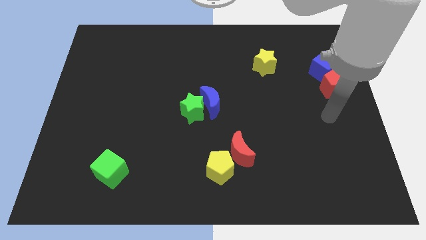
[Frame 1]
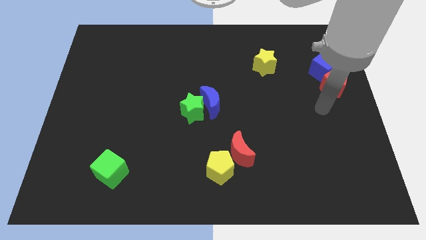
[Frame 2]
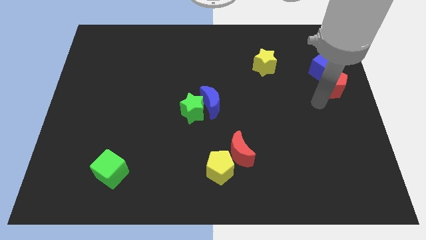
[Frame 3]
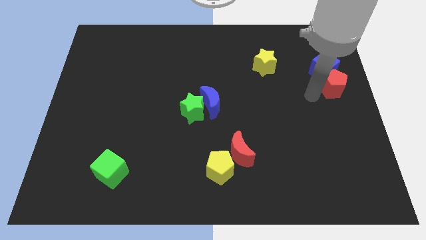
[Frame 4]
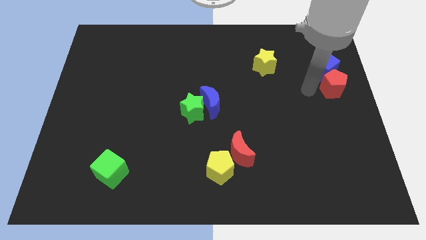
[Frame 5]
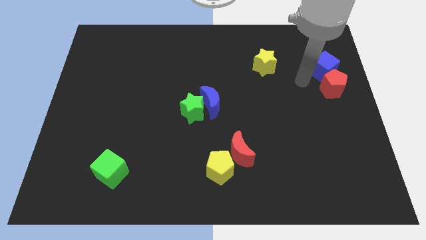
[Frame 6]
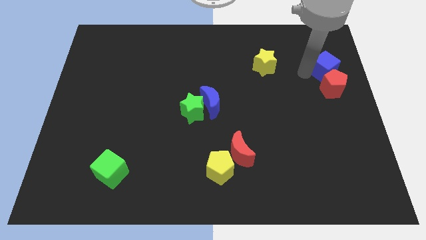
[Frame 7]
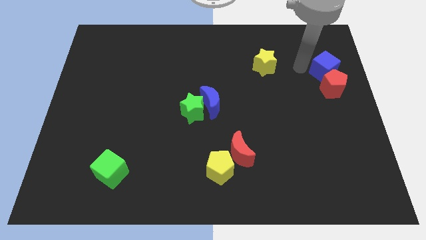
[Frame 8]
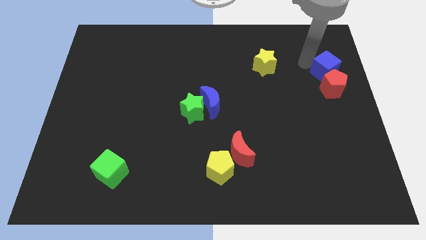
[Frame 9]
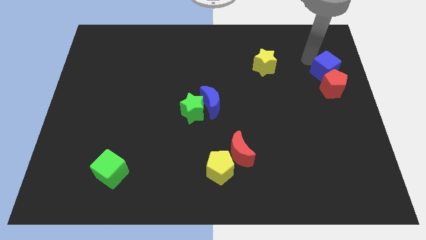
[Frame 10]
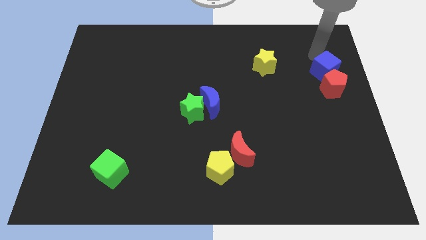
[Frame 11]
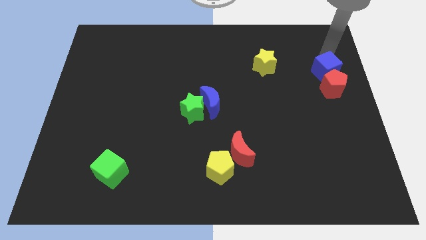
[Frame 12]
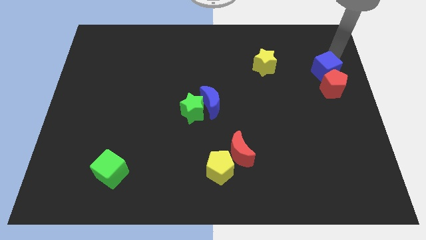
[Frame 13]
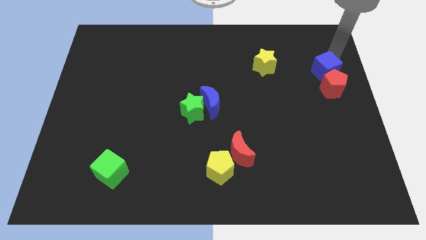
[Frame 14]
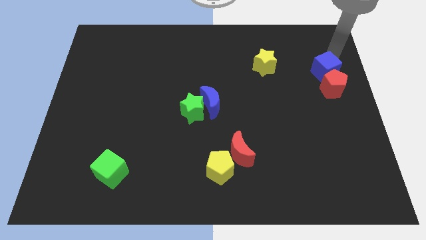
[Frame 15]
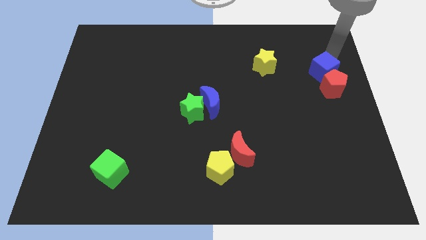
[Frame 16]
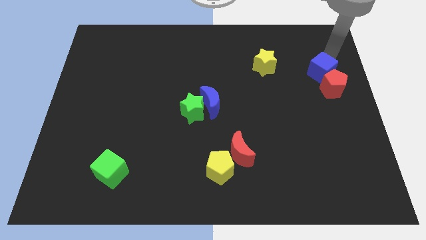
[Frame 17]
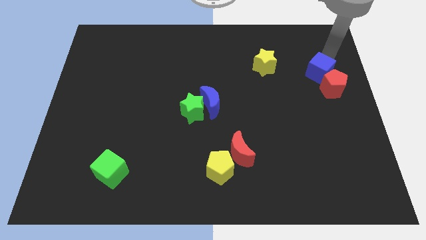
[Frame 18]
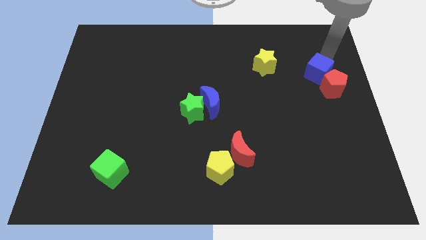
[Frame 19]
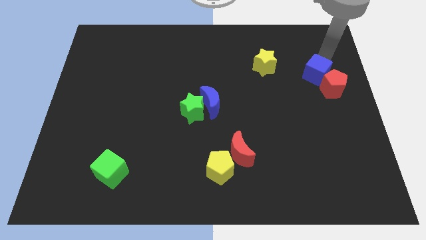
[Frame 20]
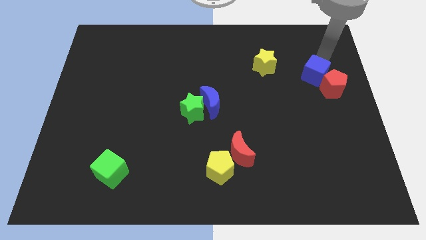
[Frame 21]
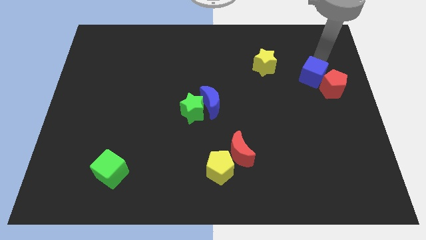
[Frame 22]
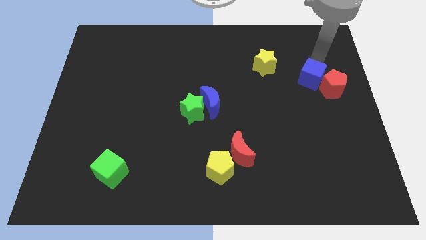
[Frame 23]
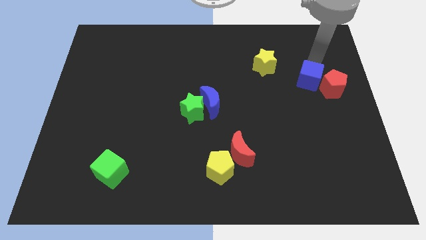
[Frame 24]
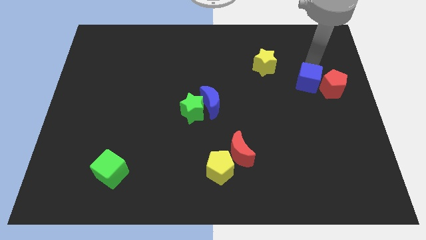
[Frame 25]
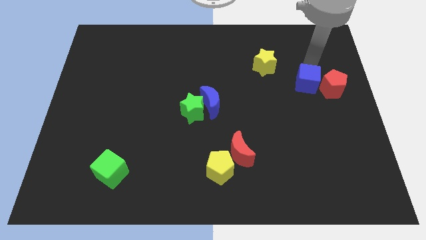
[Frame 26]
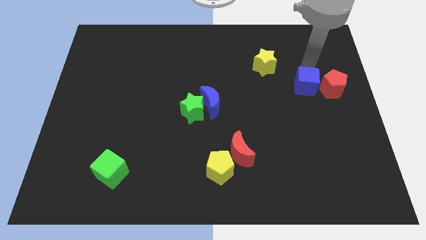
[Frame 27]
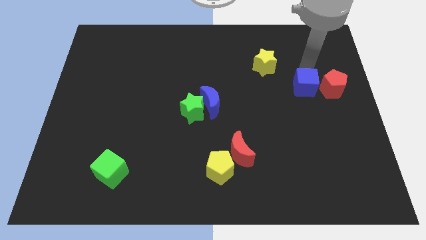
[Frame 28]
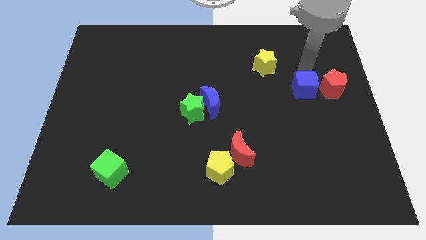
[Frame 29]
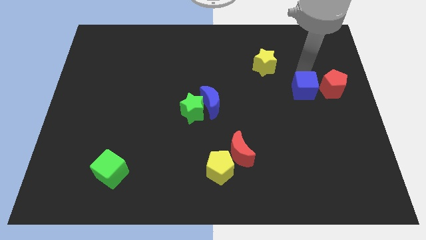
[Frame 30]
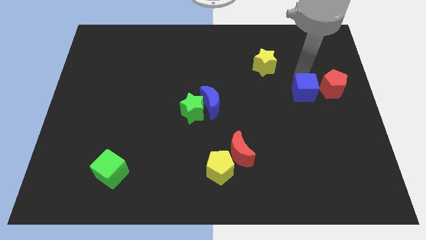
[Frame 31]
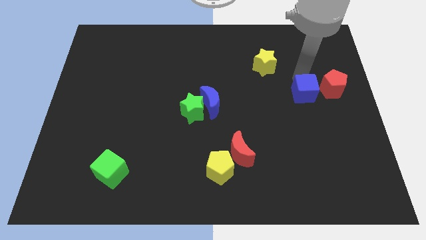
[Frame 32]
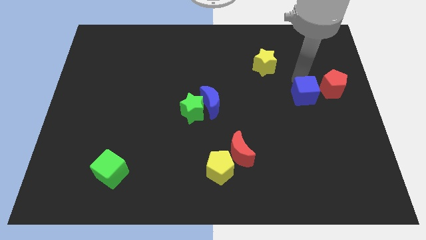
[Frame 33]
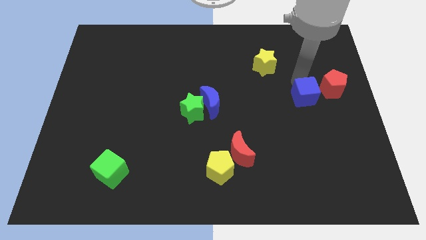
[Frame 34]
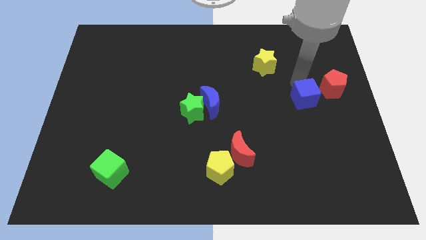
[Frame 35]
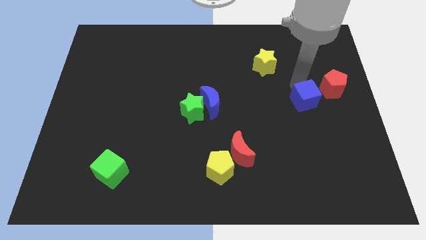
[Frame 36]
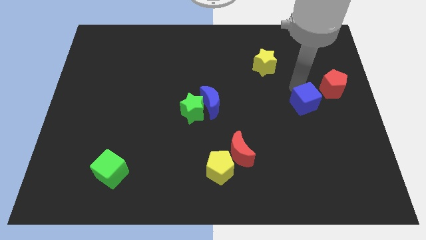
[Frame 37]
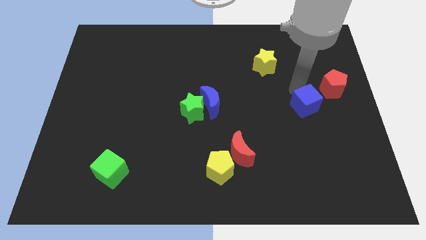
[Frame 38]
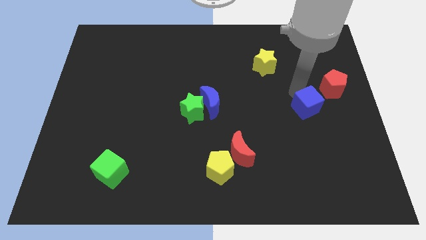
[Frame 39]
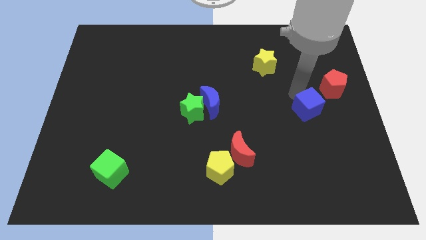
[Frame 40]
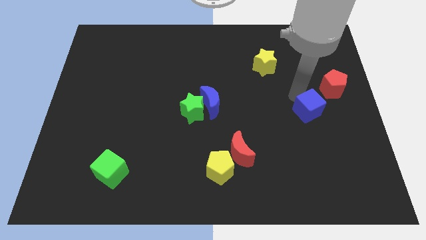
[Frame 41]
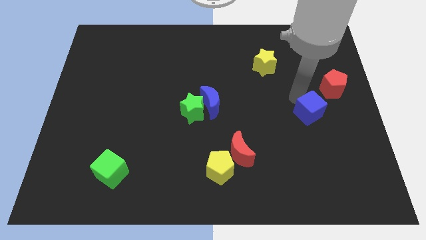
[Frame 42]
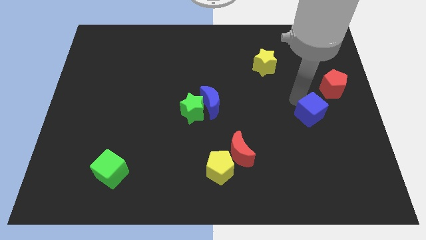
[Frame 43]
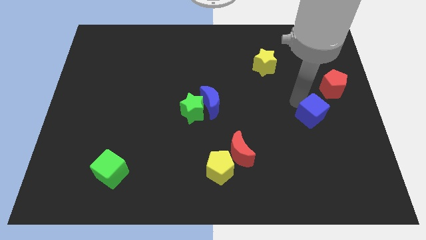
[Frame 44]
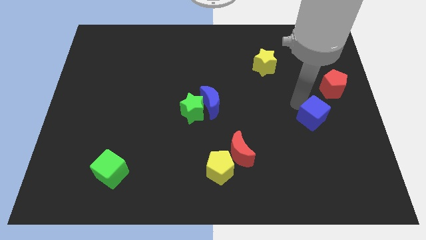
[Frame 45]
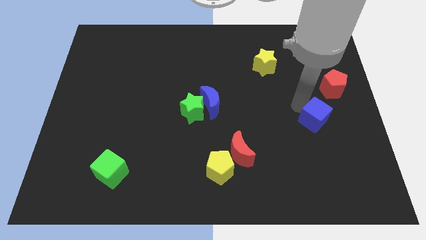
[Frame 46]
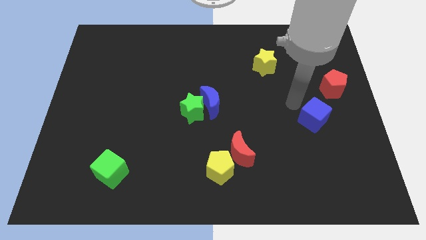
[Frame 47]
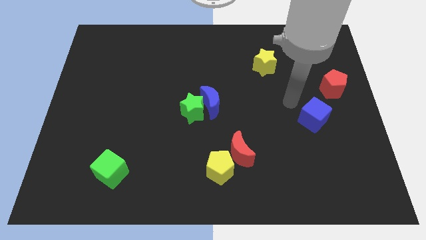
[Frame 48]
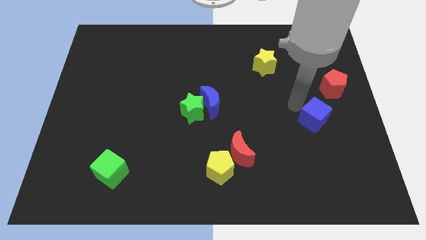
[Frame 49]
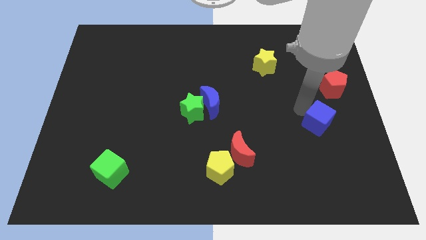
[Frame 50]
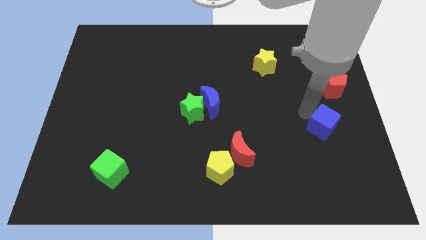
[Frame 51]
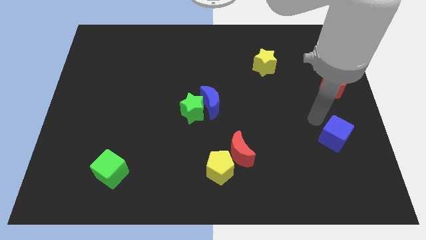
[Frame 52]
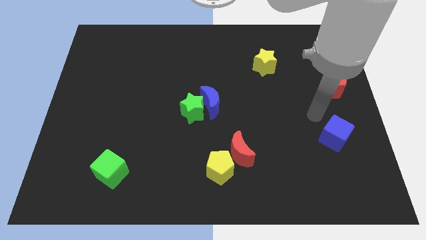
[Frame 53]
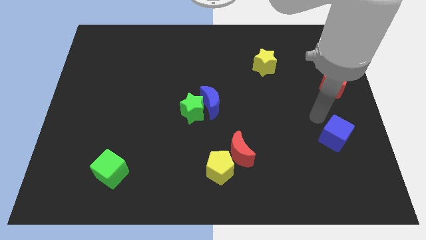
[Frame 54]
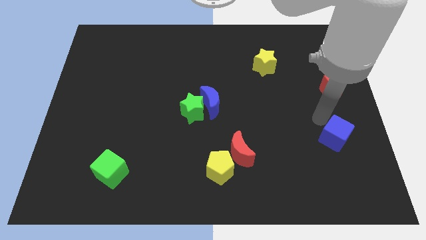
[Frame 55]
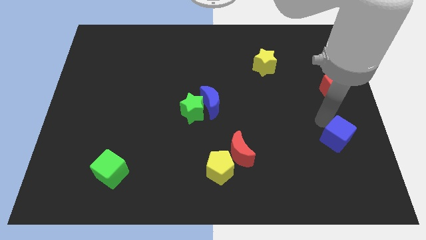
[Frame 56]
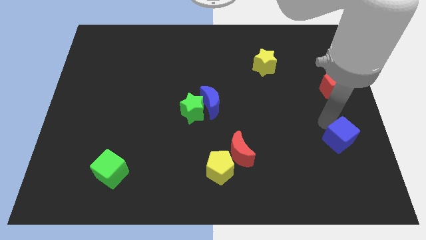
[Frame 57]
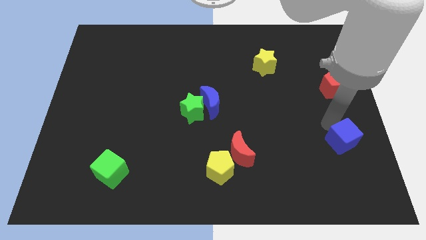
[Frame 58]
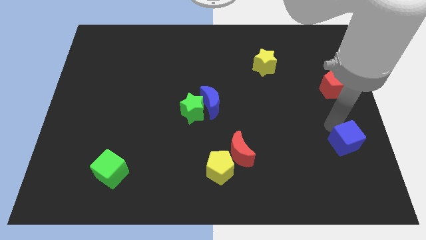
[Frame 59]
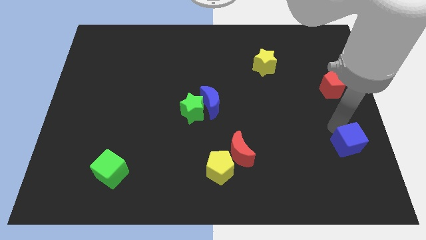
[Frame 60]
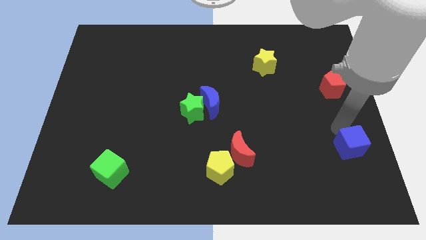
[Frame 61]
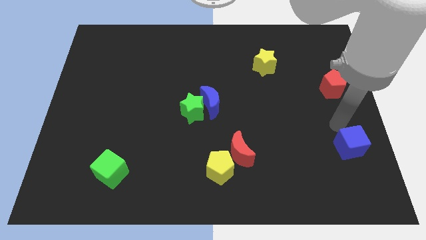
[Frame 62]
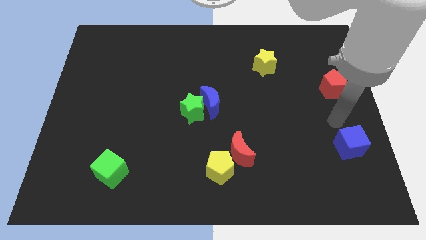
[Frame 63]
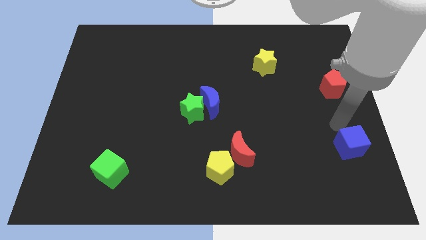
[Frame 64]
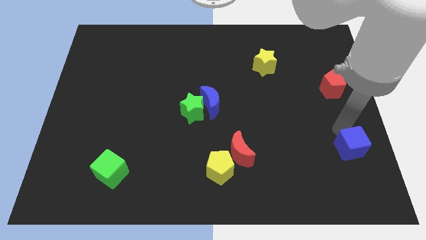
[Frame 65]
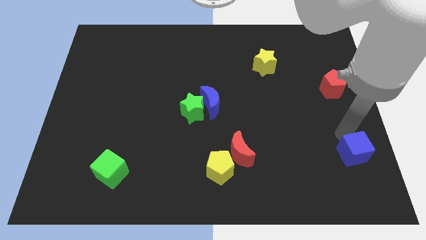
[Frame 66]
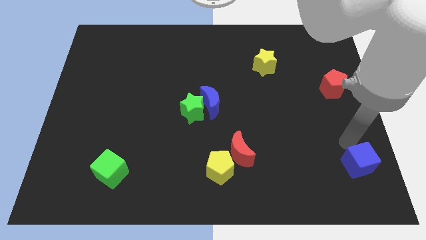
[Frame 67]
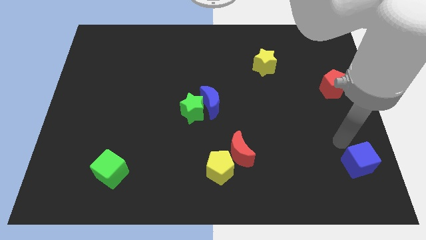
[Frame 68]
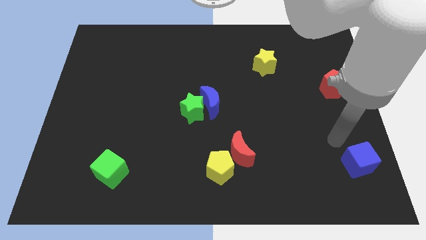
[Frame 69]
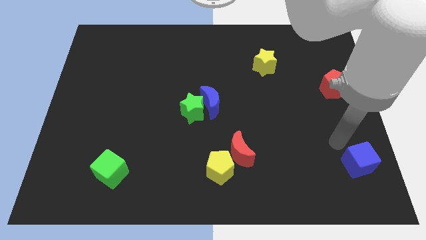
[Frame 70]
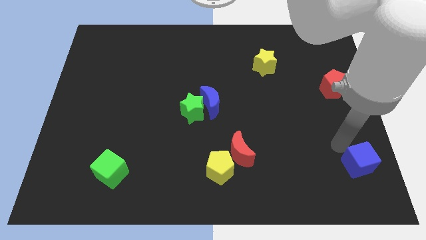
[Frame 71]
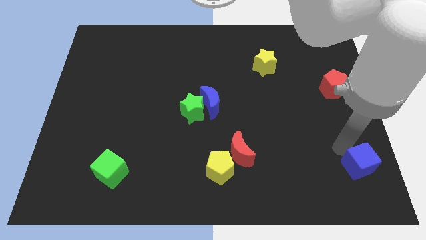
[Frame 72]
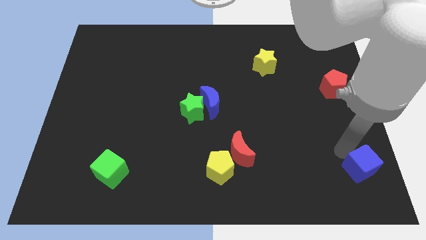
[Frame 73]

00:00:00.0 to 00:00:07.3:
put the blue cube to the bottom right of the board
